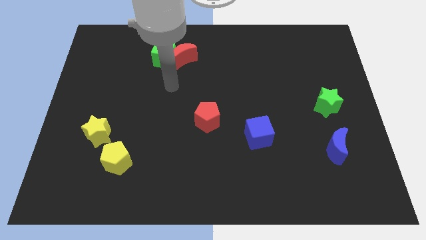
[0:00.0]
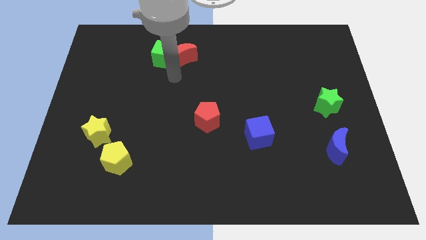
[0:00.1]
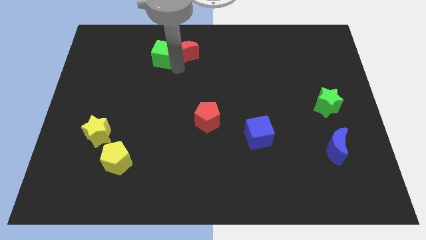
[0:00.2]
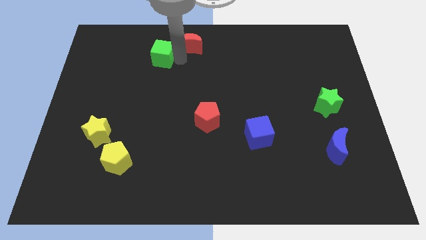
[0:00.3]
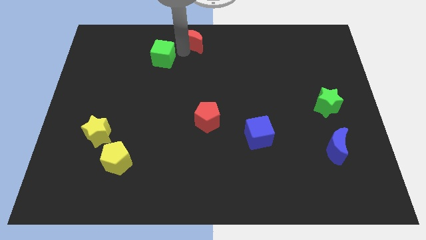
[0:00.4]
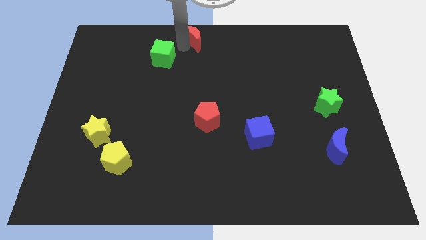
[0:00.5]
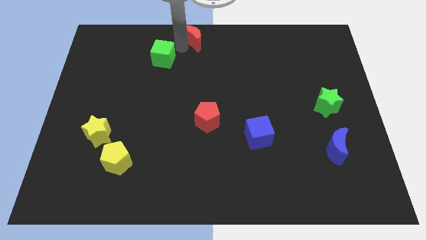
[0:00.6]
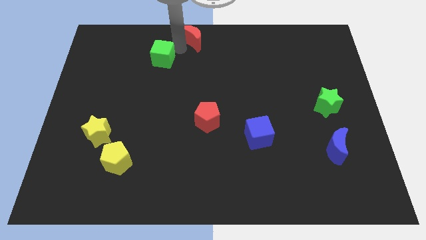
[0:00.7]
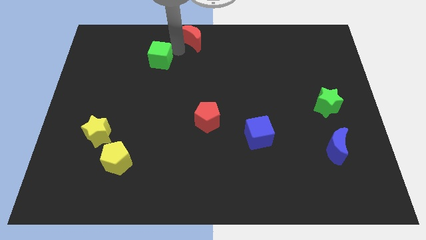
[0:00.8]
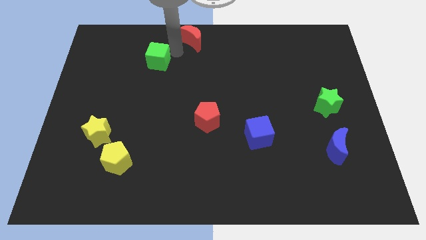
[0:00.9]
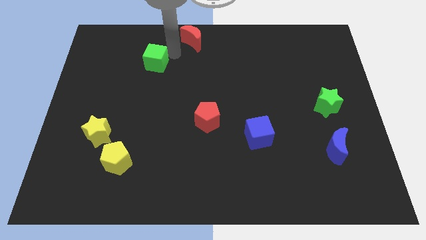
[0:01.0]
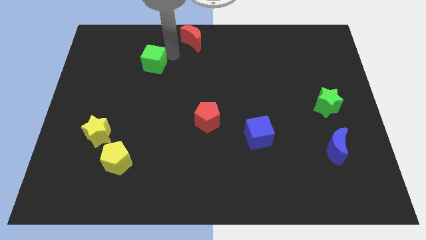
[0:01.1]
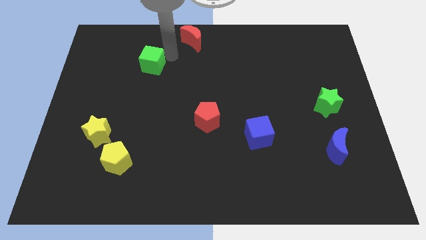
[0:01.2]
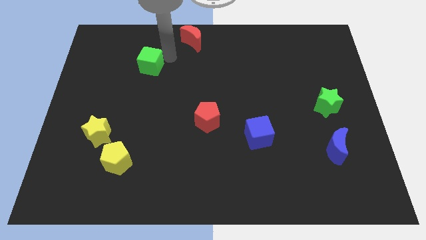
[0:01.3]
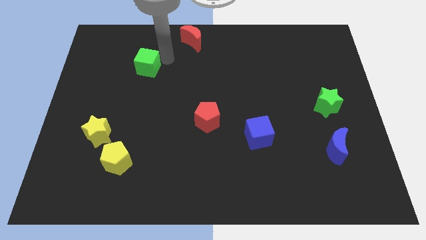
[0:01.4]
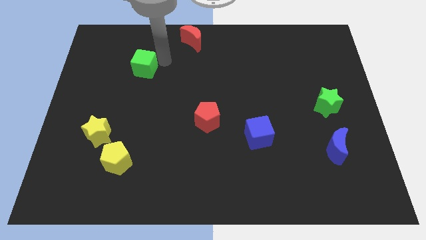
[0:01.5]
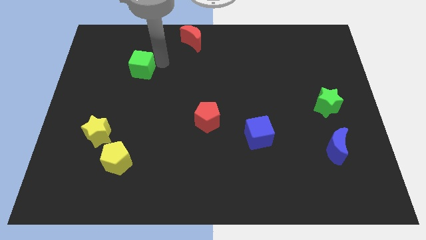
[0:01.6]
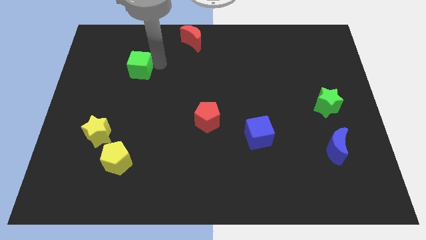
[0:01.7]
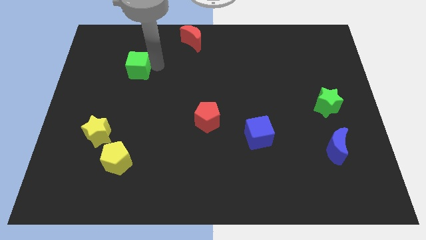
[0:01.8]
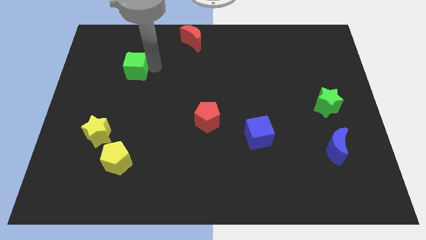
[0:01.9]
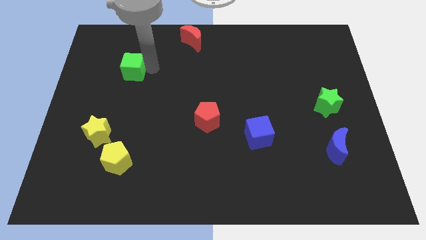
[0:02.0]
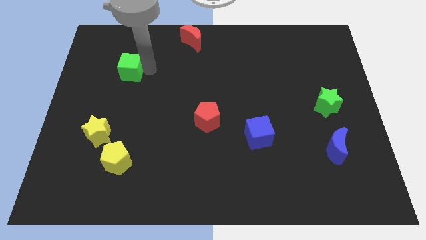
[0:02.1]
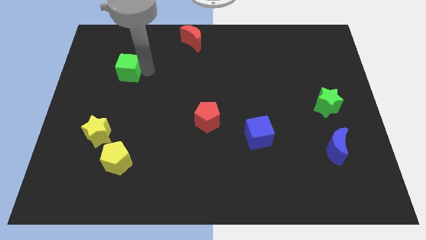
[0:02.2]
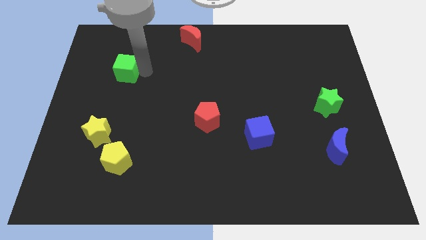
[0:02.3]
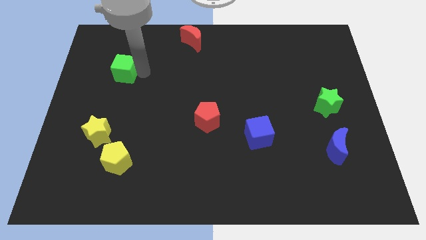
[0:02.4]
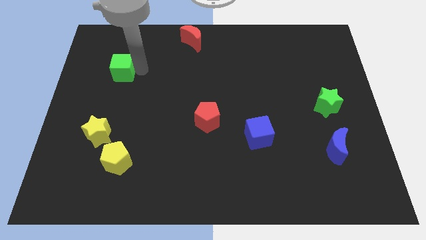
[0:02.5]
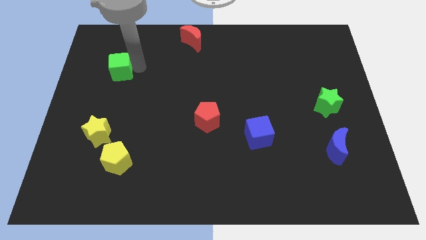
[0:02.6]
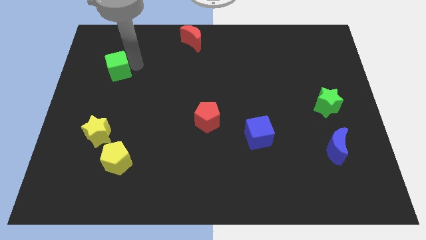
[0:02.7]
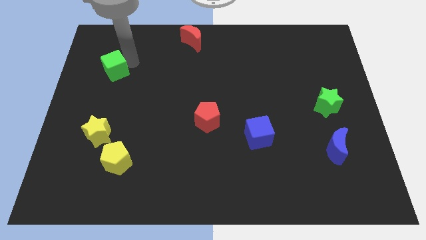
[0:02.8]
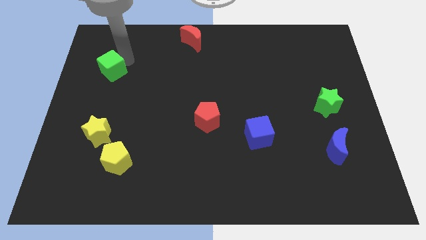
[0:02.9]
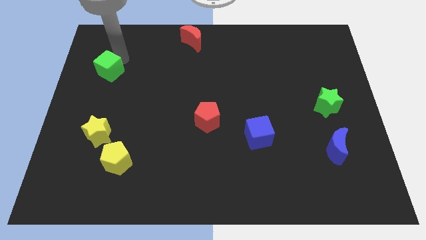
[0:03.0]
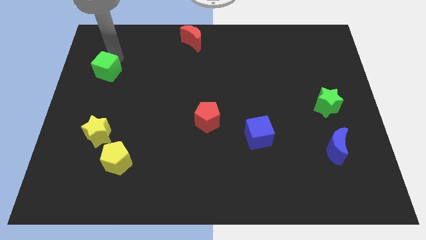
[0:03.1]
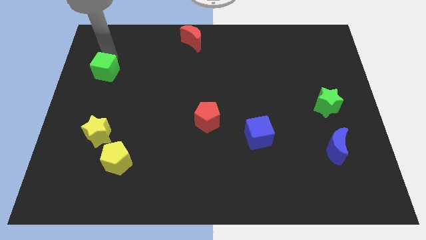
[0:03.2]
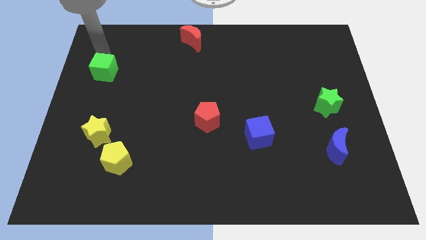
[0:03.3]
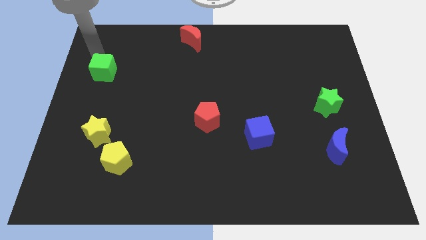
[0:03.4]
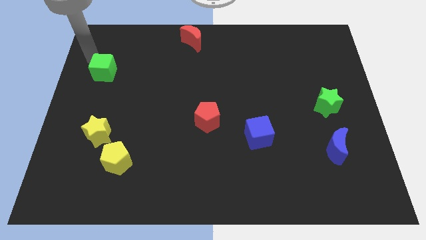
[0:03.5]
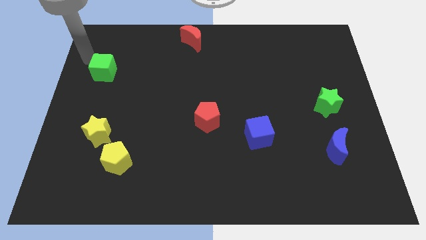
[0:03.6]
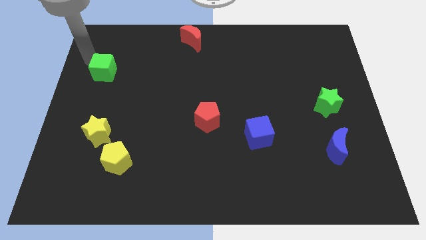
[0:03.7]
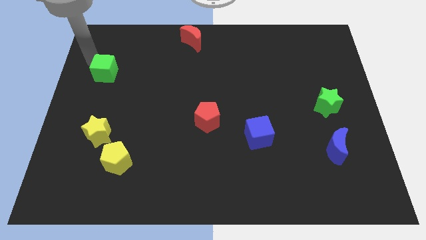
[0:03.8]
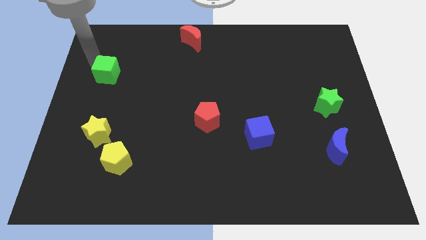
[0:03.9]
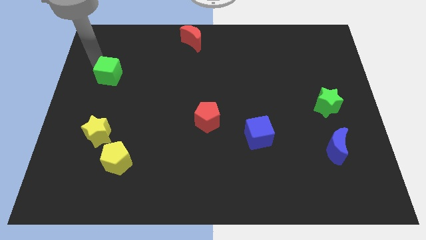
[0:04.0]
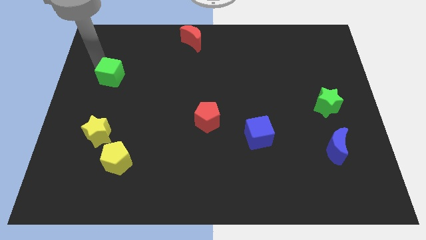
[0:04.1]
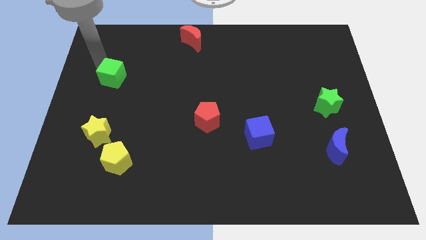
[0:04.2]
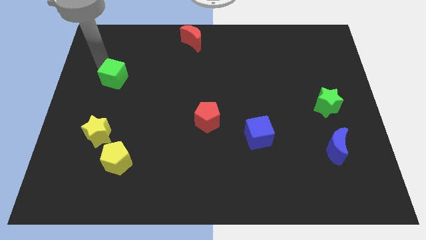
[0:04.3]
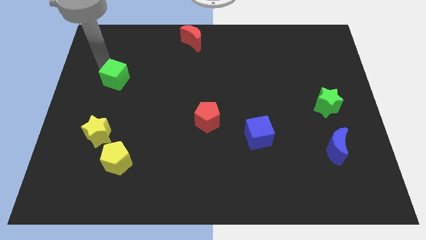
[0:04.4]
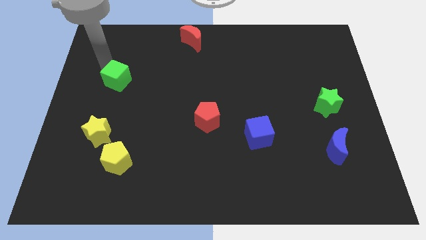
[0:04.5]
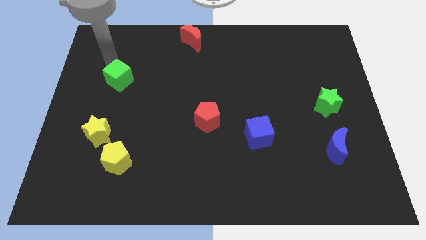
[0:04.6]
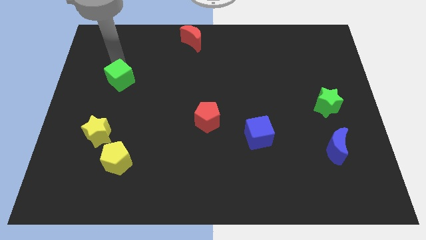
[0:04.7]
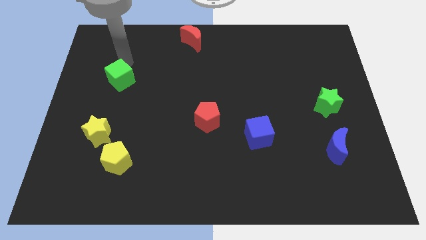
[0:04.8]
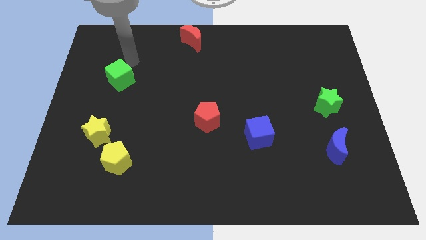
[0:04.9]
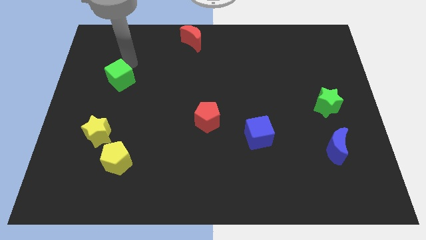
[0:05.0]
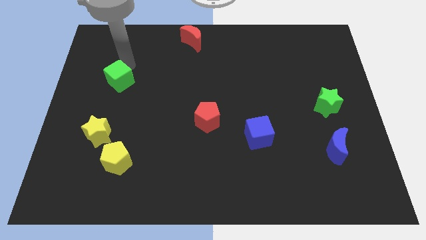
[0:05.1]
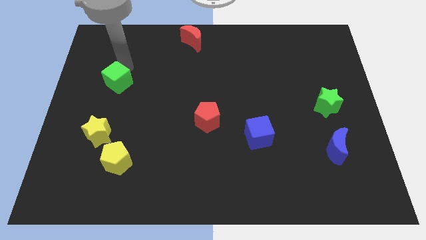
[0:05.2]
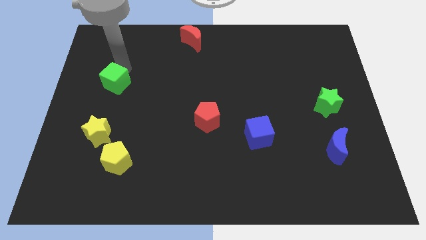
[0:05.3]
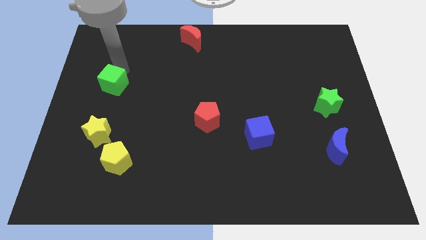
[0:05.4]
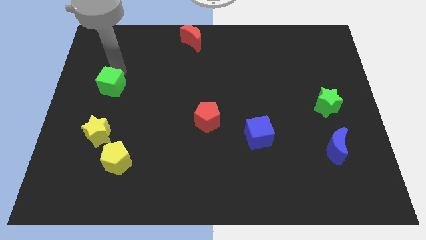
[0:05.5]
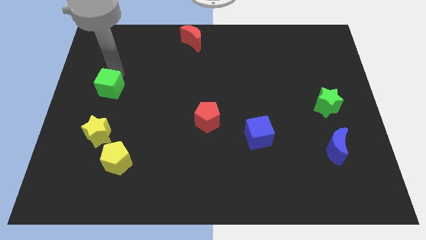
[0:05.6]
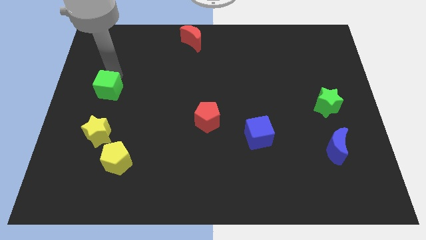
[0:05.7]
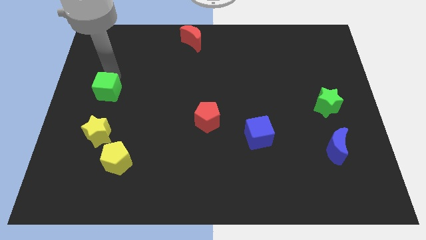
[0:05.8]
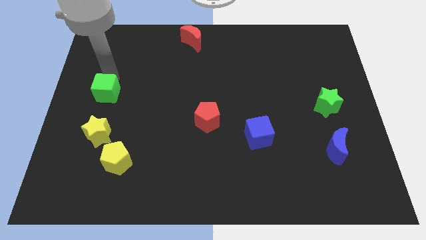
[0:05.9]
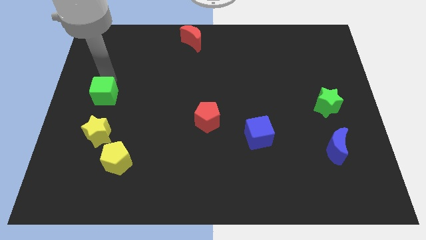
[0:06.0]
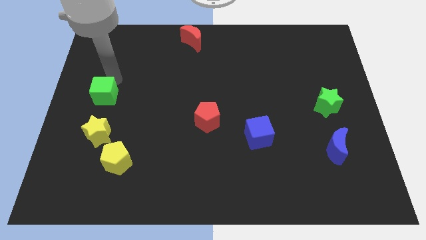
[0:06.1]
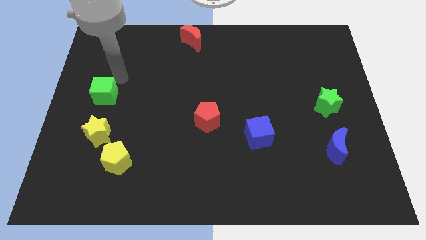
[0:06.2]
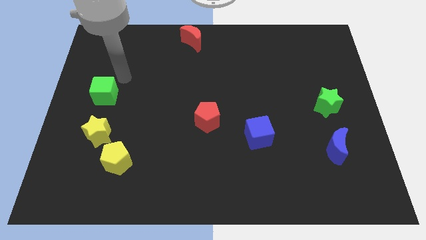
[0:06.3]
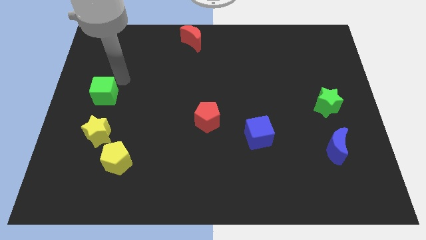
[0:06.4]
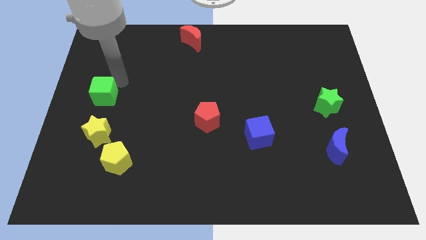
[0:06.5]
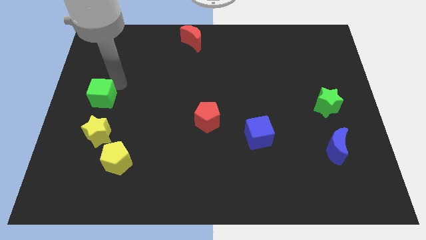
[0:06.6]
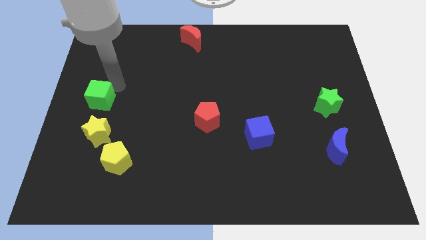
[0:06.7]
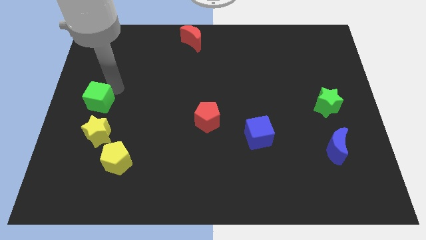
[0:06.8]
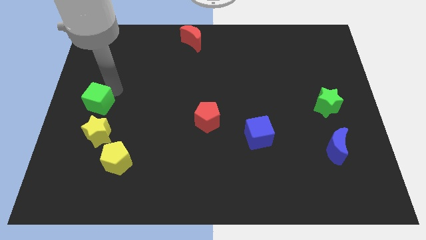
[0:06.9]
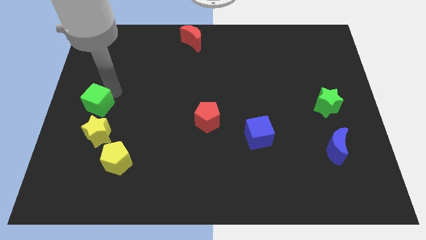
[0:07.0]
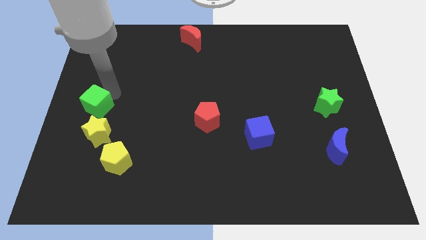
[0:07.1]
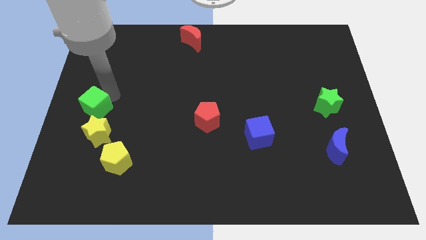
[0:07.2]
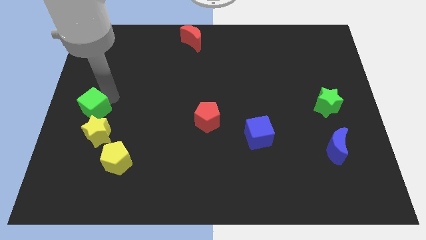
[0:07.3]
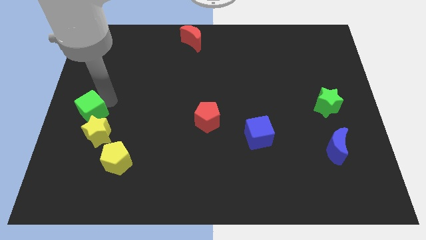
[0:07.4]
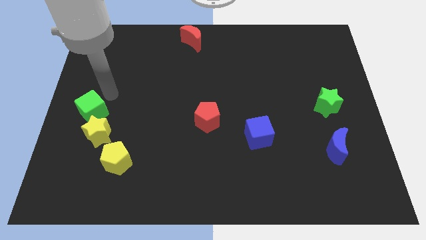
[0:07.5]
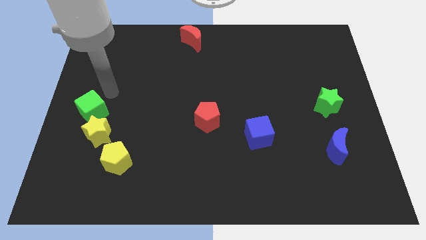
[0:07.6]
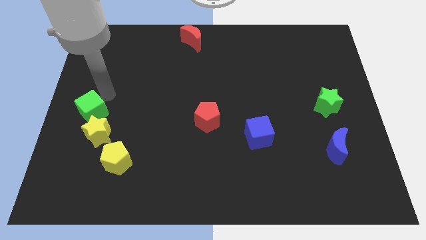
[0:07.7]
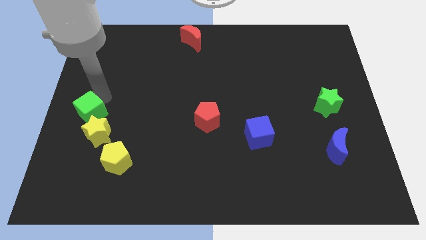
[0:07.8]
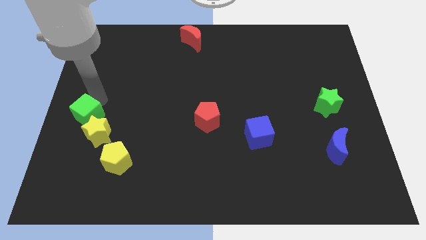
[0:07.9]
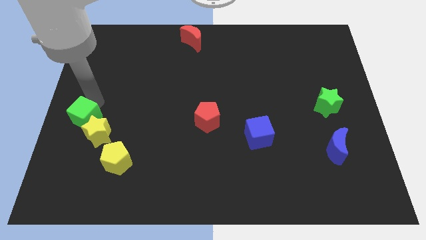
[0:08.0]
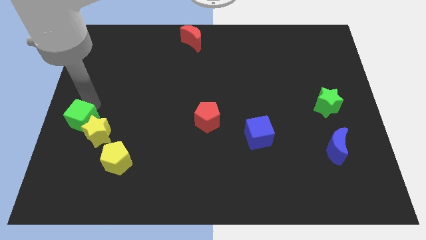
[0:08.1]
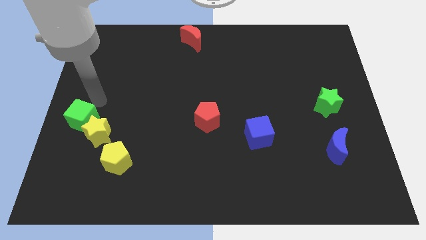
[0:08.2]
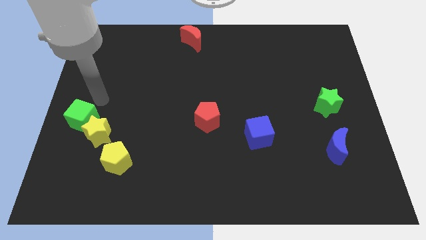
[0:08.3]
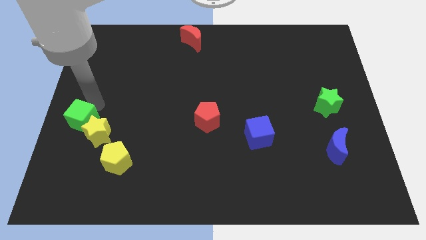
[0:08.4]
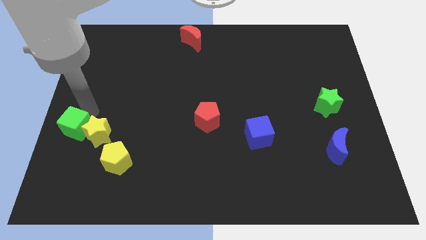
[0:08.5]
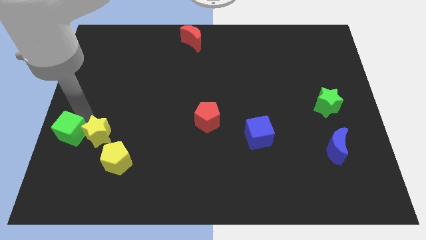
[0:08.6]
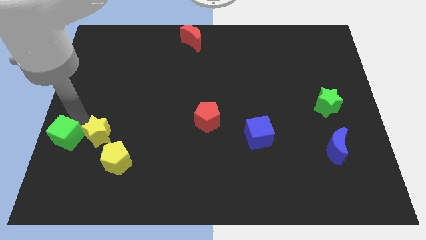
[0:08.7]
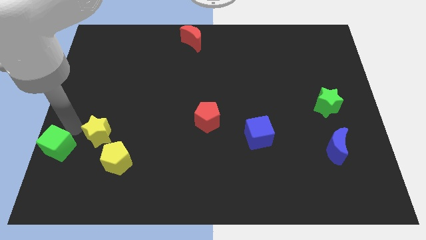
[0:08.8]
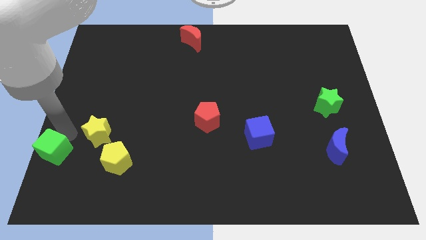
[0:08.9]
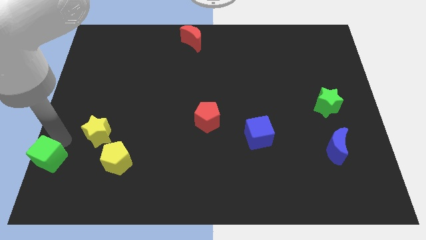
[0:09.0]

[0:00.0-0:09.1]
move the green cube to the lower left corner
